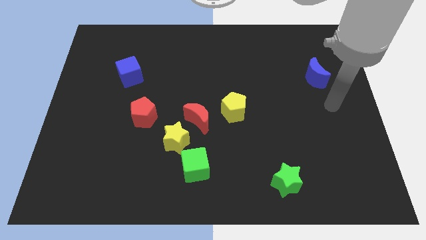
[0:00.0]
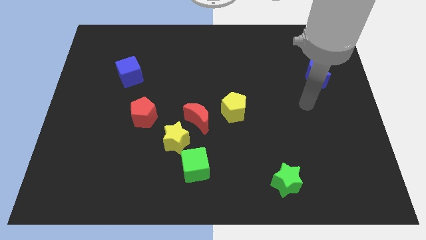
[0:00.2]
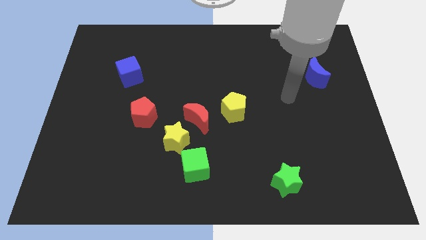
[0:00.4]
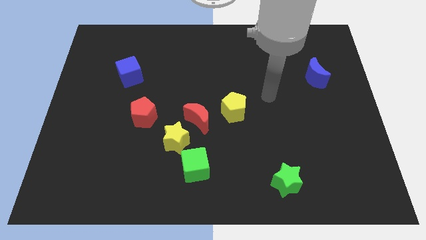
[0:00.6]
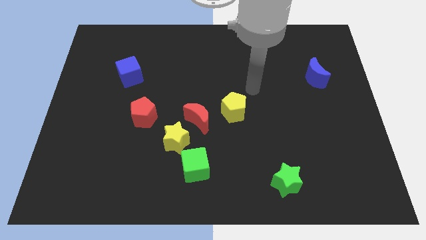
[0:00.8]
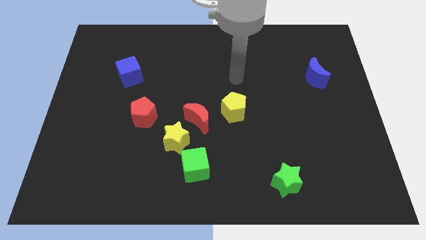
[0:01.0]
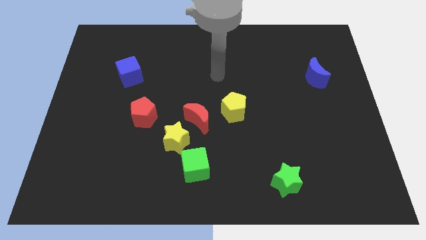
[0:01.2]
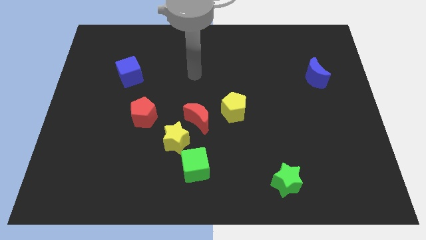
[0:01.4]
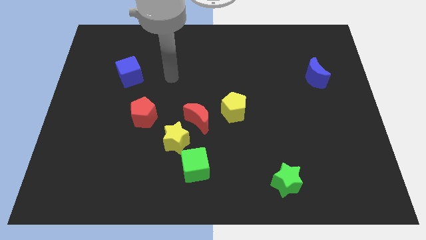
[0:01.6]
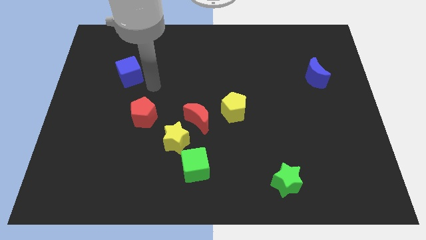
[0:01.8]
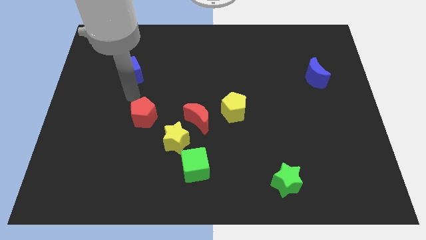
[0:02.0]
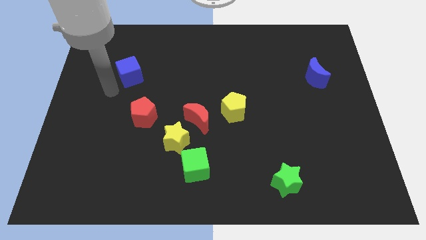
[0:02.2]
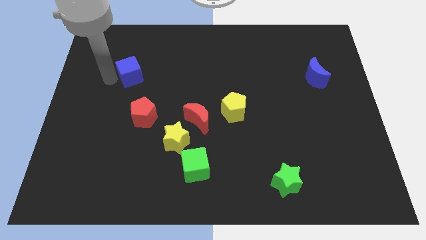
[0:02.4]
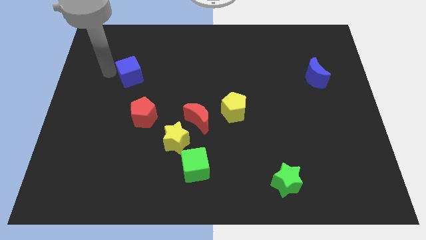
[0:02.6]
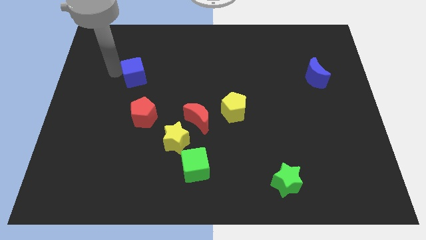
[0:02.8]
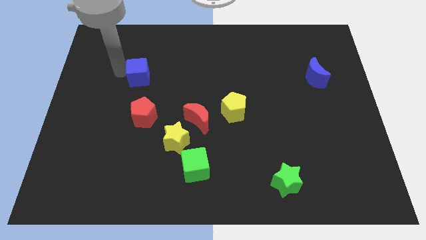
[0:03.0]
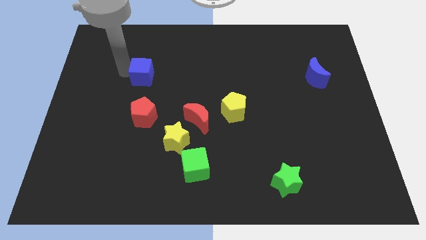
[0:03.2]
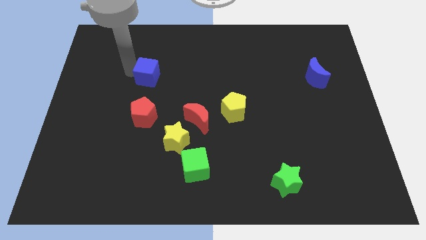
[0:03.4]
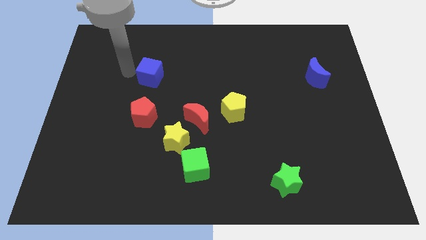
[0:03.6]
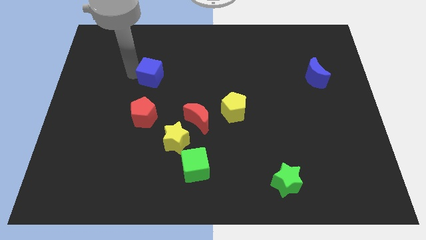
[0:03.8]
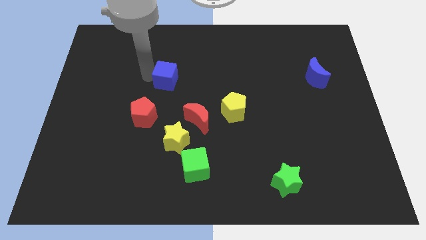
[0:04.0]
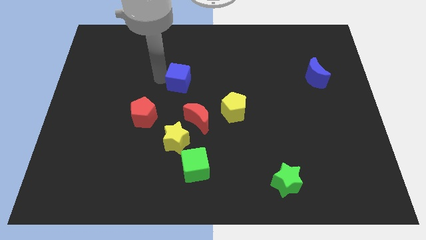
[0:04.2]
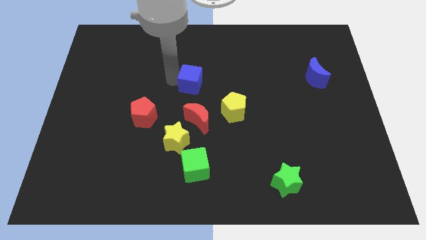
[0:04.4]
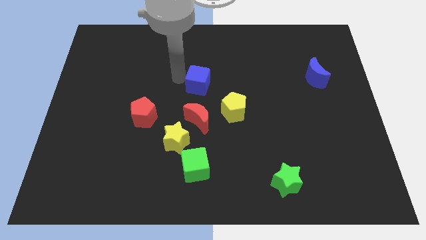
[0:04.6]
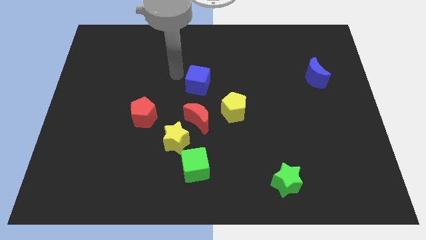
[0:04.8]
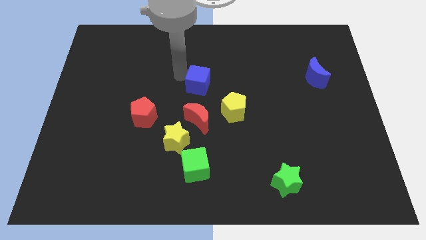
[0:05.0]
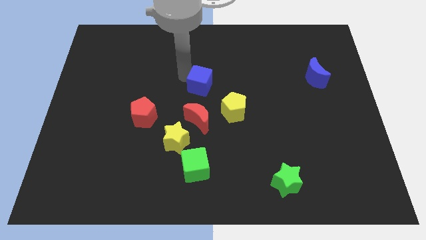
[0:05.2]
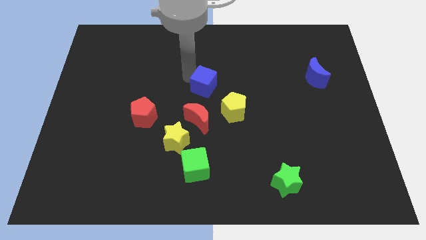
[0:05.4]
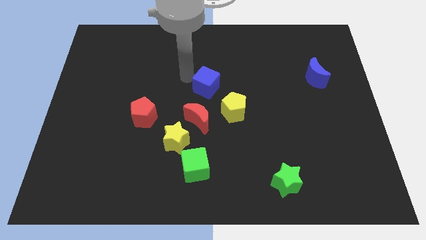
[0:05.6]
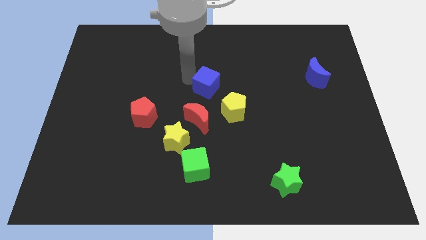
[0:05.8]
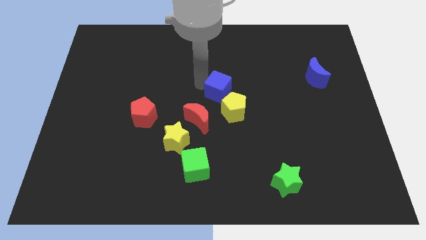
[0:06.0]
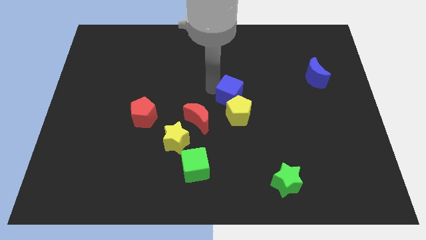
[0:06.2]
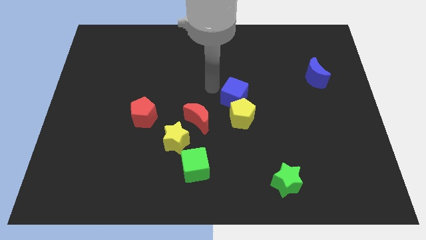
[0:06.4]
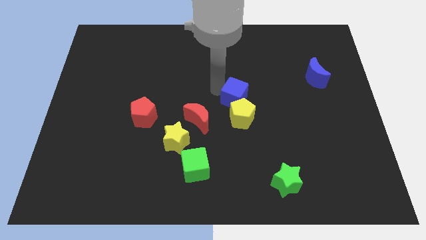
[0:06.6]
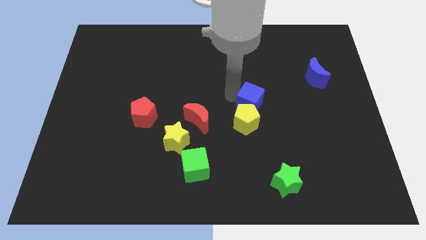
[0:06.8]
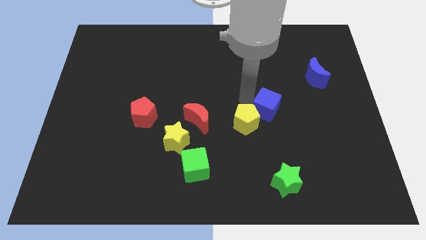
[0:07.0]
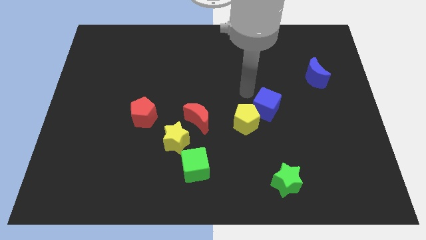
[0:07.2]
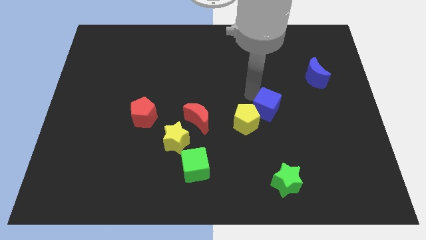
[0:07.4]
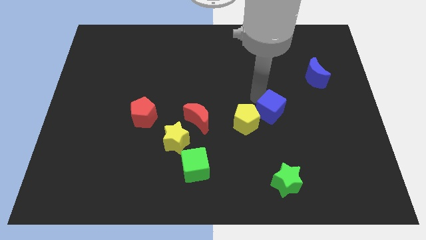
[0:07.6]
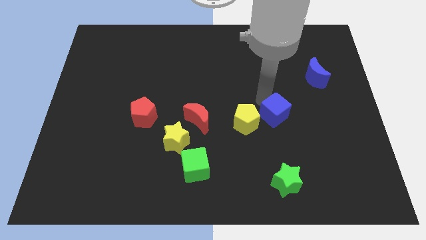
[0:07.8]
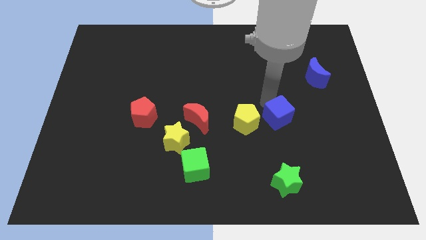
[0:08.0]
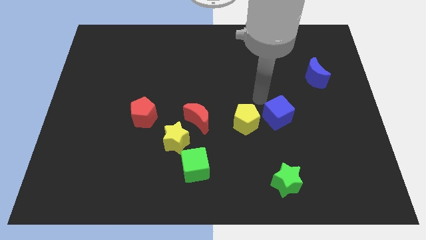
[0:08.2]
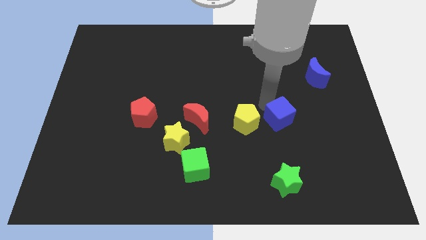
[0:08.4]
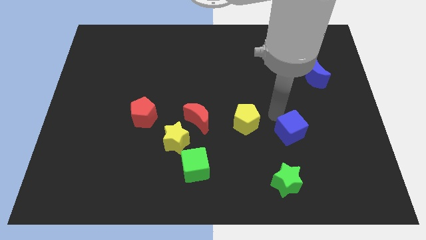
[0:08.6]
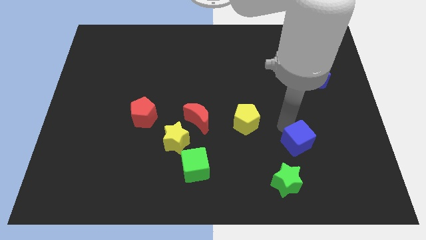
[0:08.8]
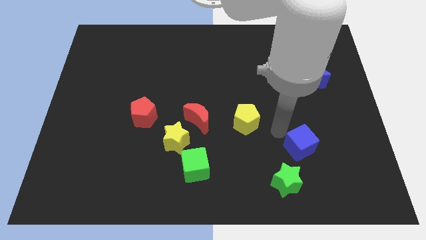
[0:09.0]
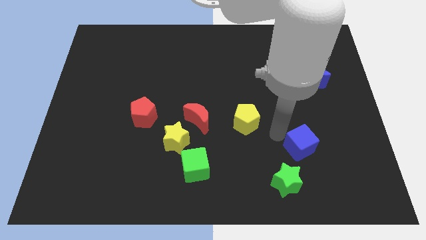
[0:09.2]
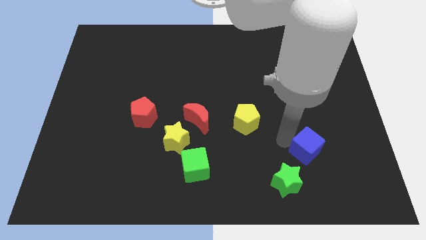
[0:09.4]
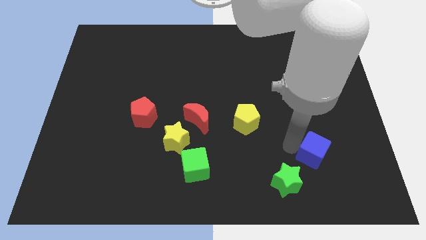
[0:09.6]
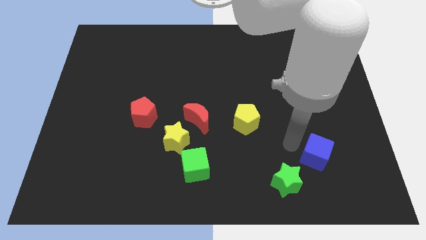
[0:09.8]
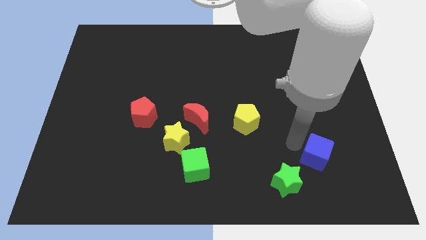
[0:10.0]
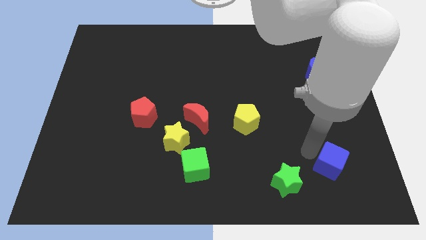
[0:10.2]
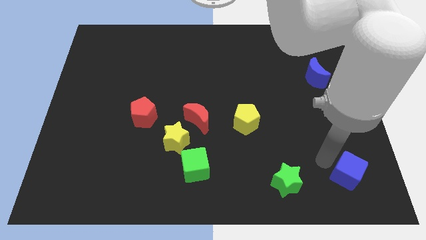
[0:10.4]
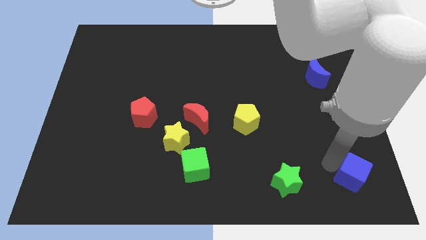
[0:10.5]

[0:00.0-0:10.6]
move the blue cube to the lower right corner

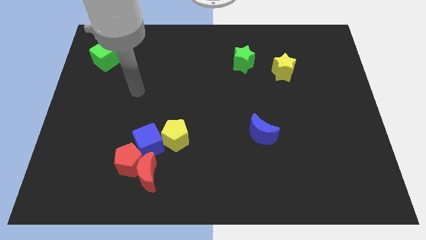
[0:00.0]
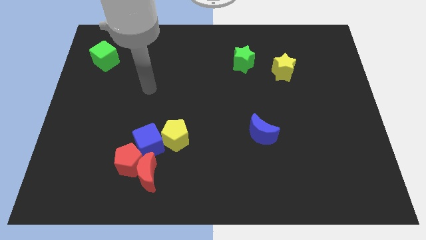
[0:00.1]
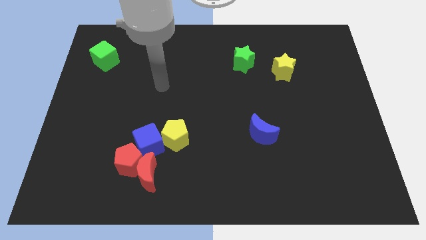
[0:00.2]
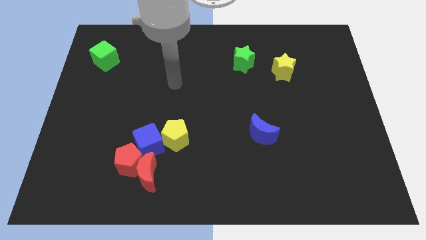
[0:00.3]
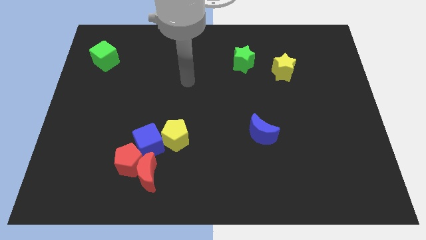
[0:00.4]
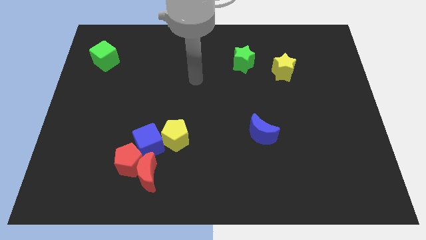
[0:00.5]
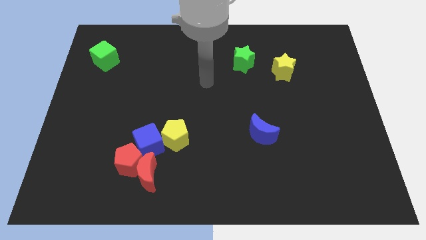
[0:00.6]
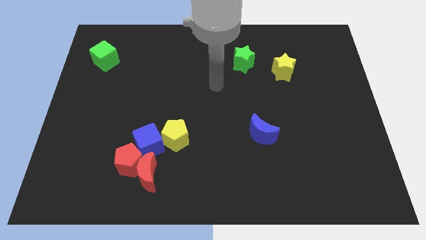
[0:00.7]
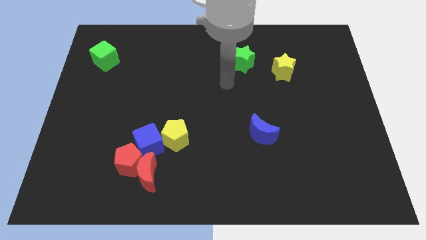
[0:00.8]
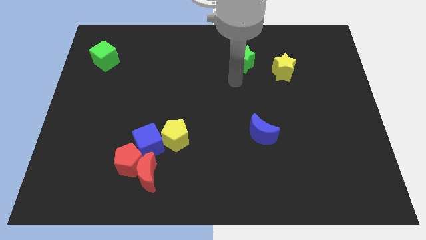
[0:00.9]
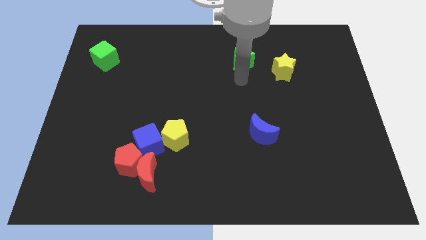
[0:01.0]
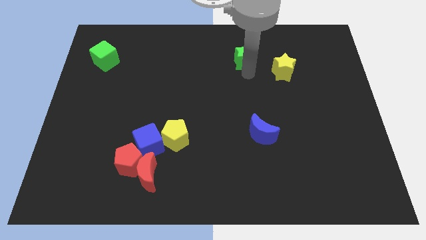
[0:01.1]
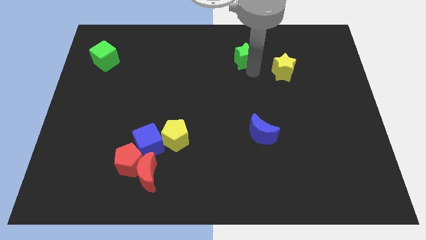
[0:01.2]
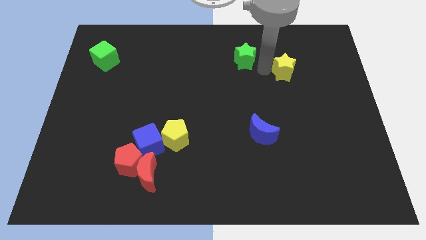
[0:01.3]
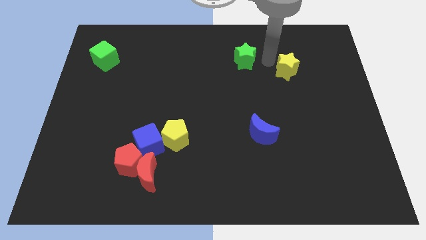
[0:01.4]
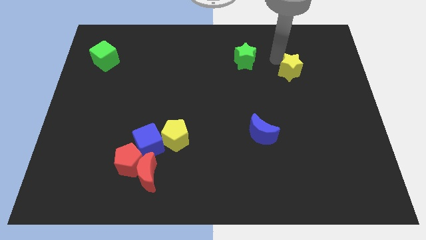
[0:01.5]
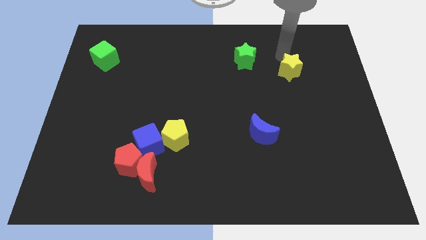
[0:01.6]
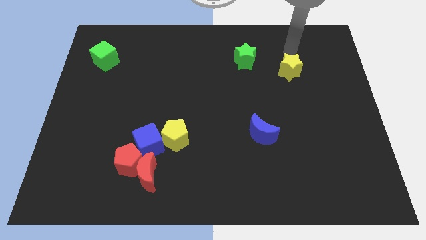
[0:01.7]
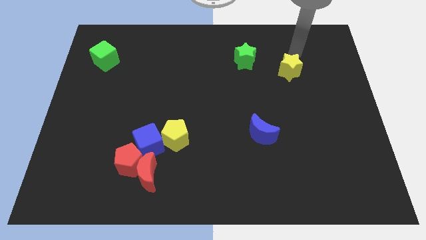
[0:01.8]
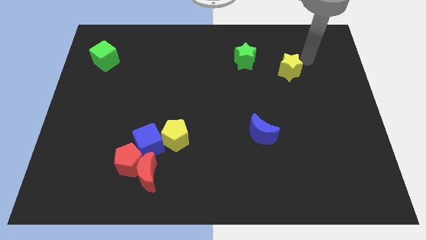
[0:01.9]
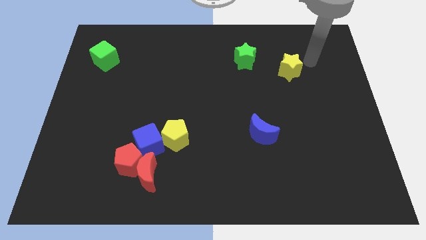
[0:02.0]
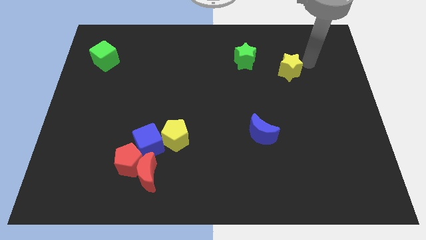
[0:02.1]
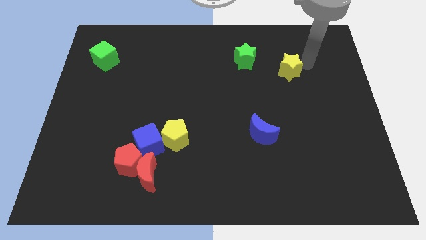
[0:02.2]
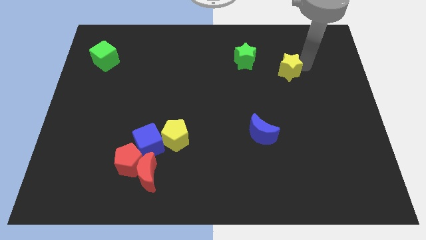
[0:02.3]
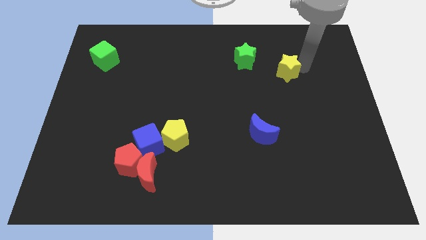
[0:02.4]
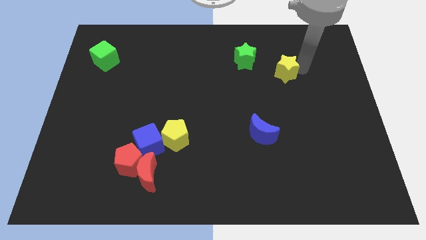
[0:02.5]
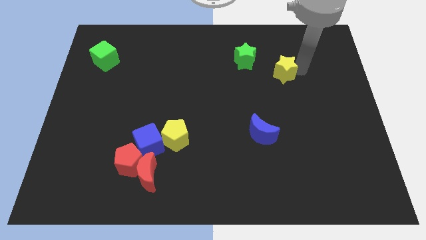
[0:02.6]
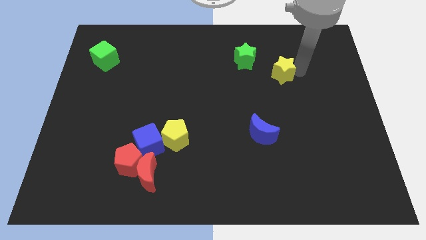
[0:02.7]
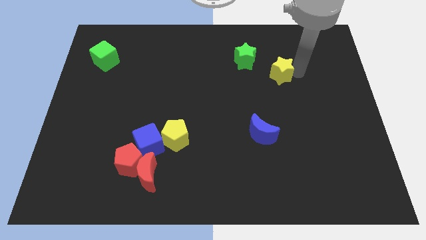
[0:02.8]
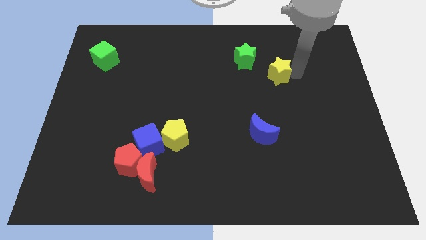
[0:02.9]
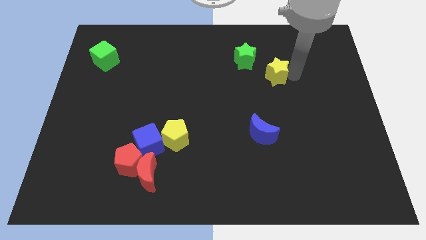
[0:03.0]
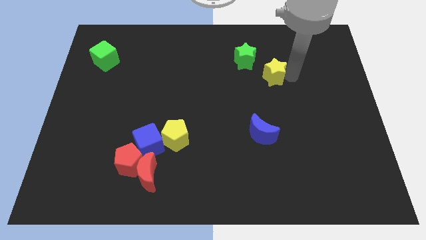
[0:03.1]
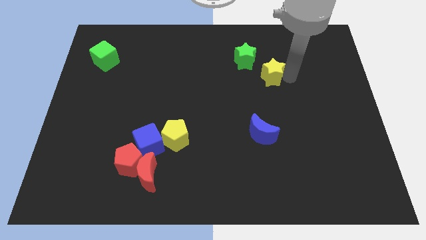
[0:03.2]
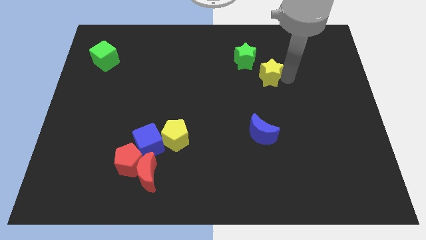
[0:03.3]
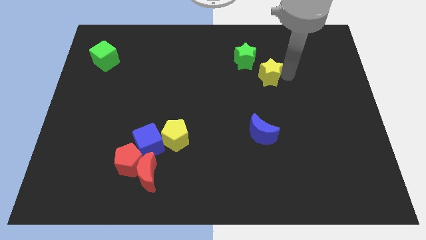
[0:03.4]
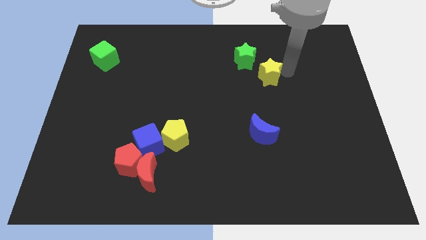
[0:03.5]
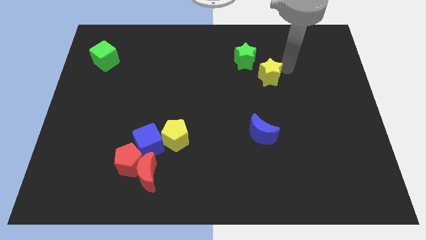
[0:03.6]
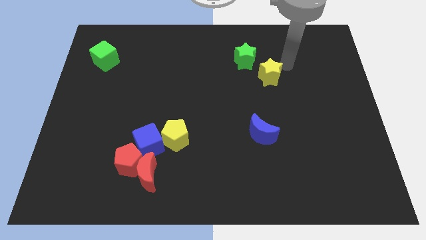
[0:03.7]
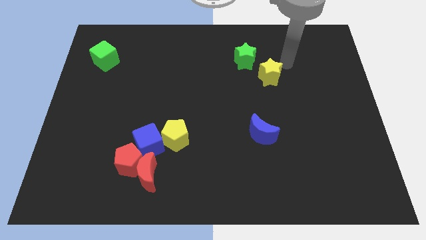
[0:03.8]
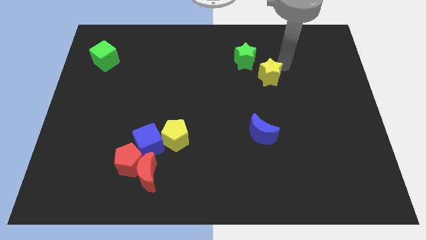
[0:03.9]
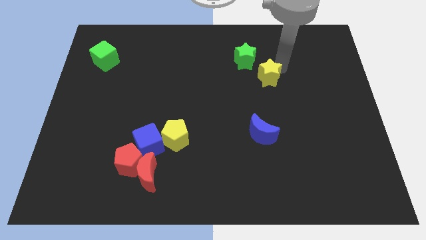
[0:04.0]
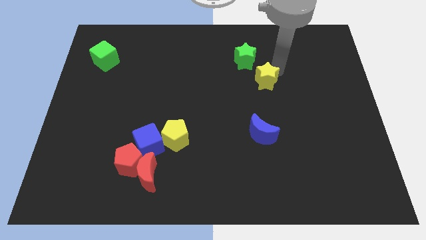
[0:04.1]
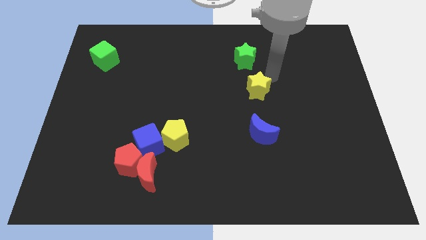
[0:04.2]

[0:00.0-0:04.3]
put the yellow star to the center of the board
